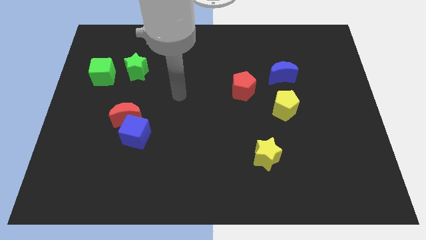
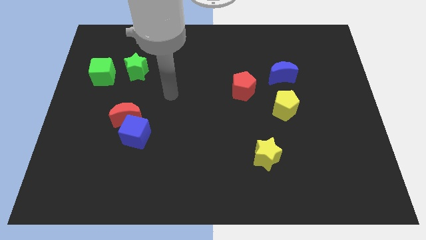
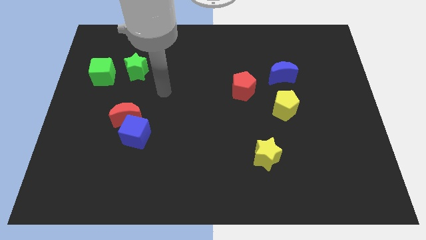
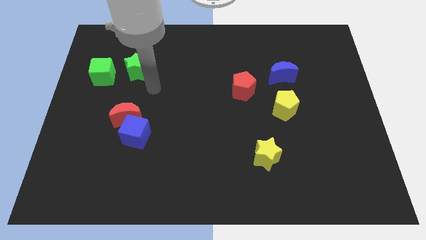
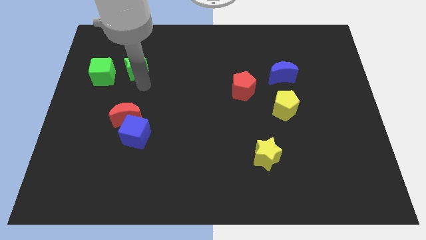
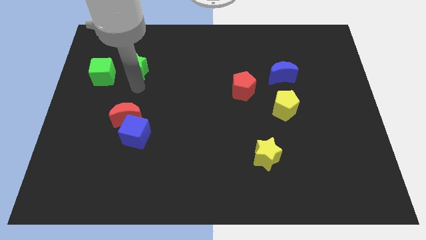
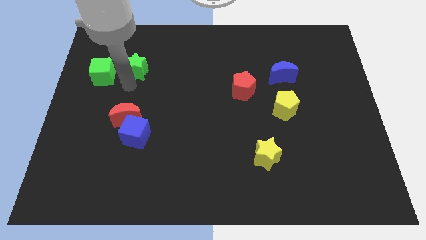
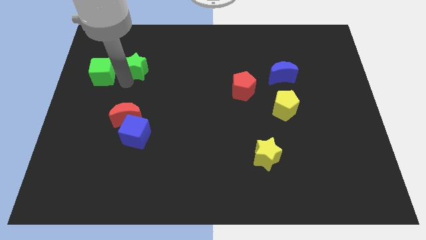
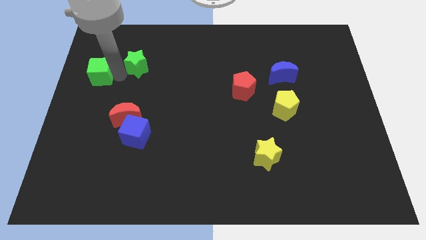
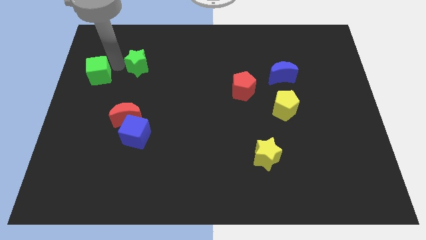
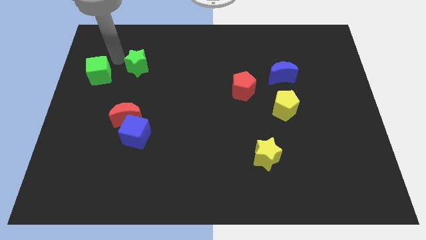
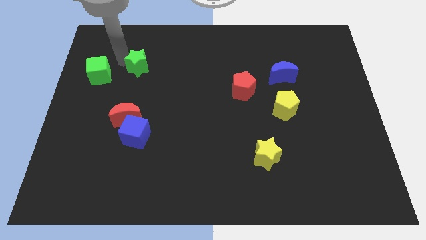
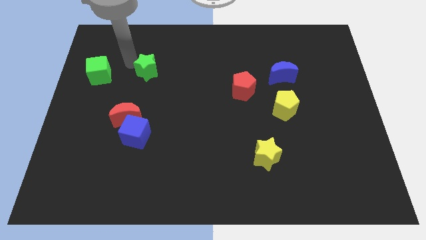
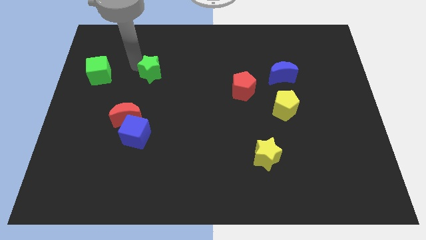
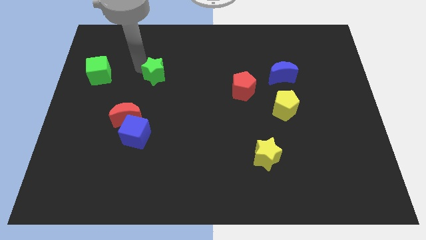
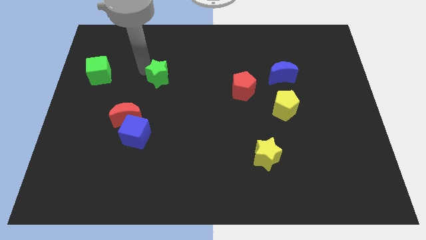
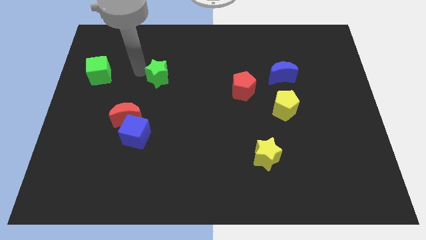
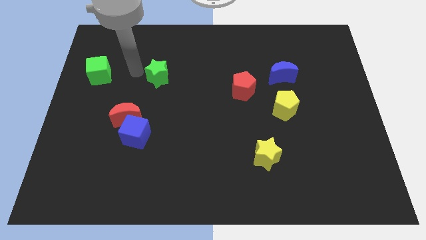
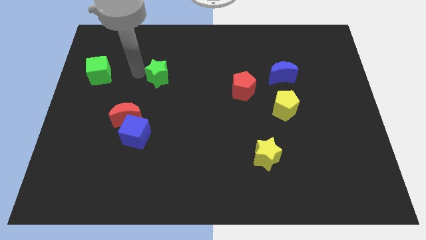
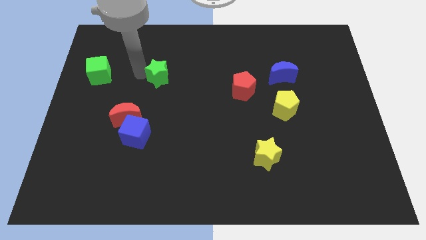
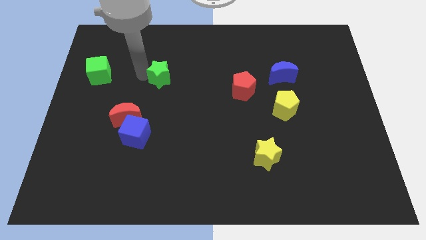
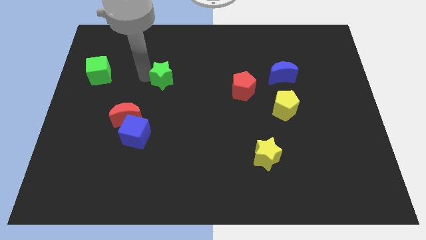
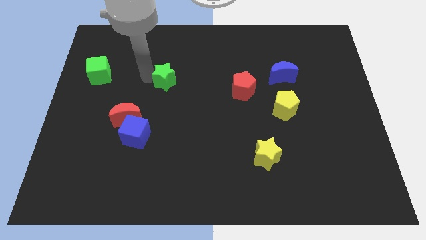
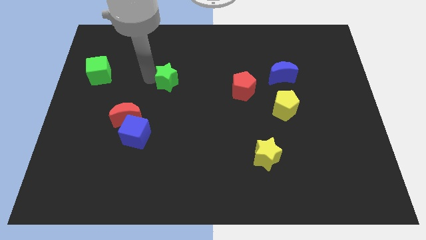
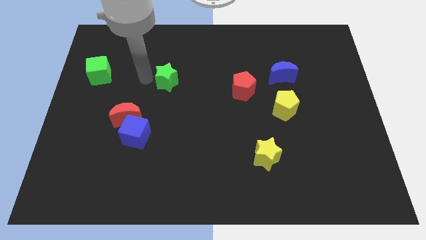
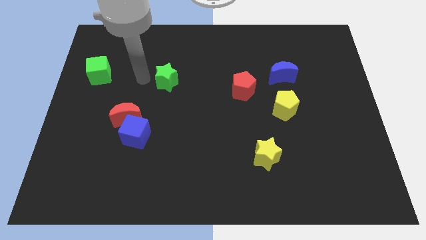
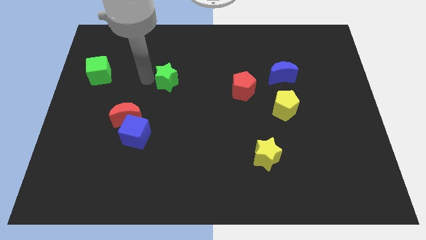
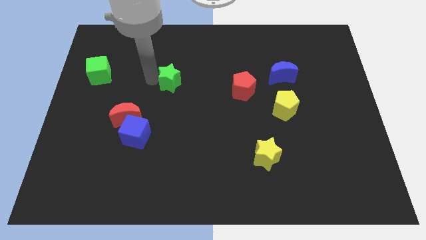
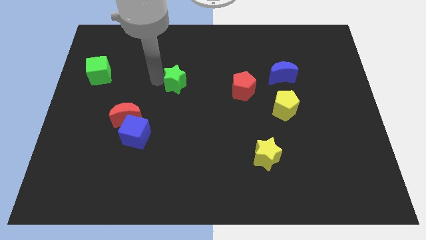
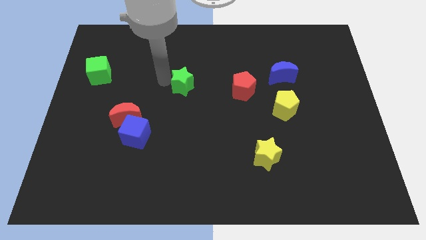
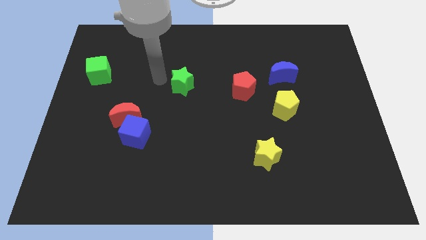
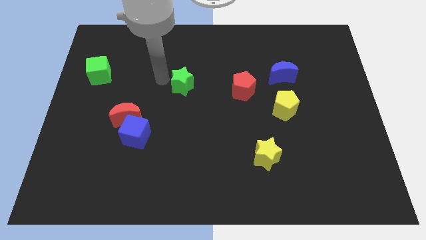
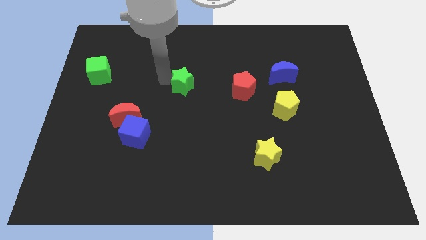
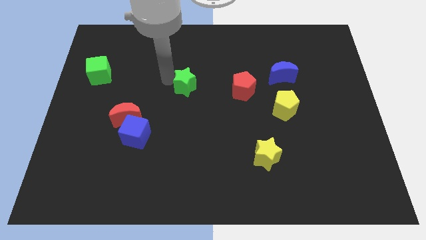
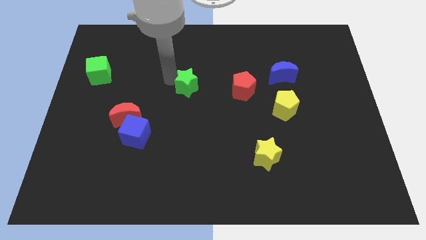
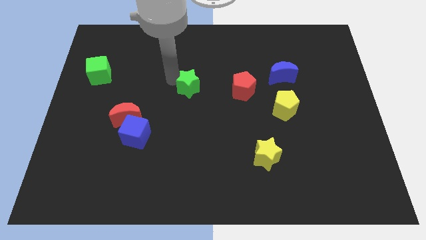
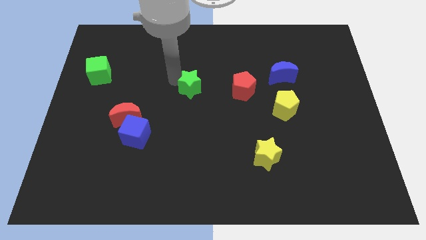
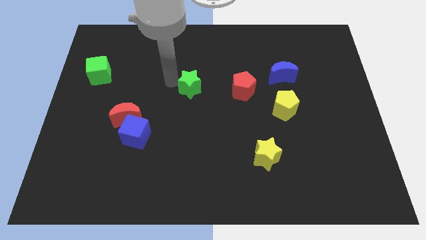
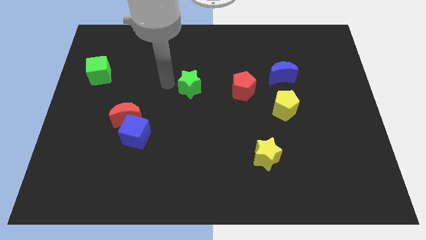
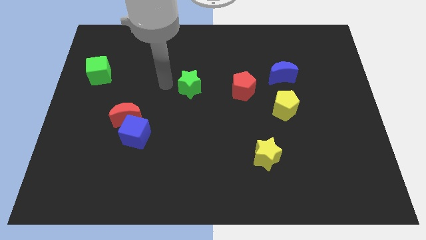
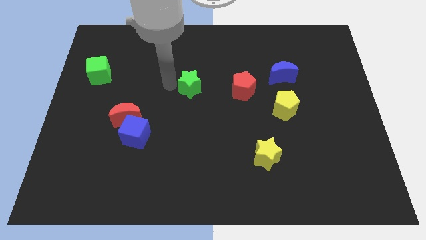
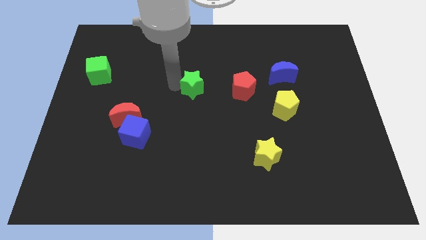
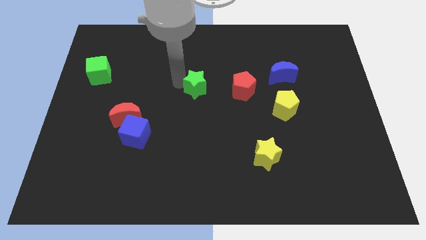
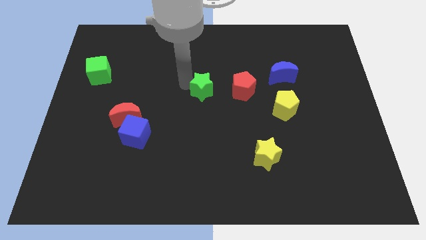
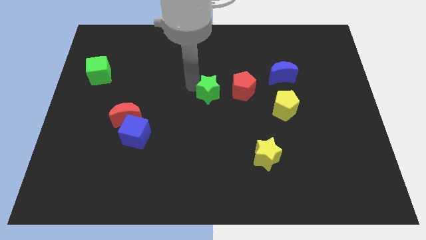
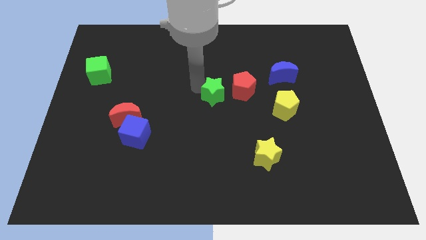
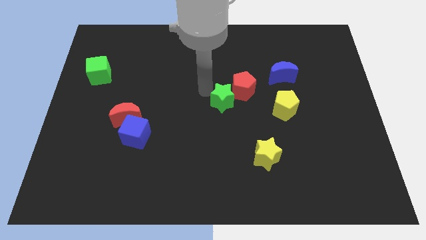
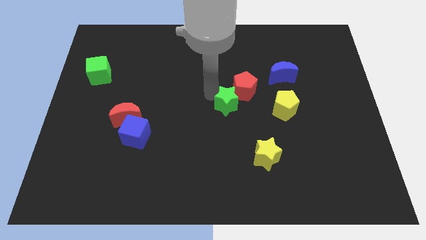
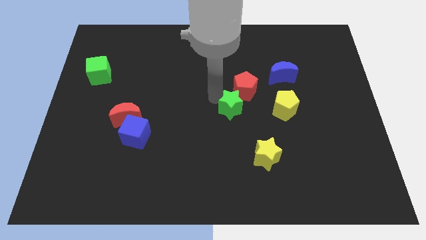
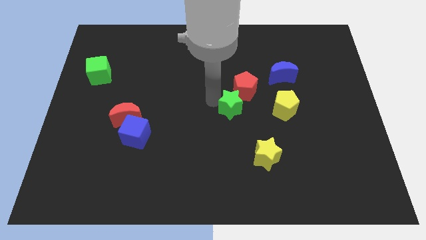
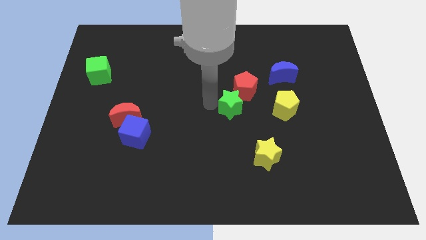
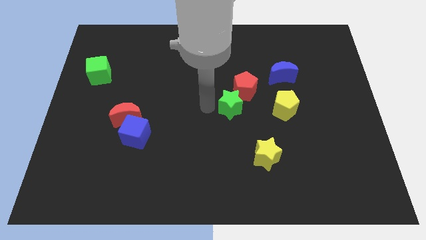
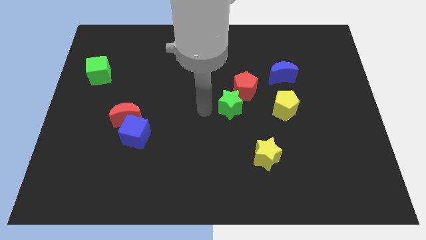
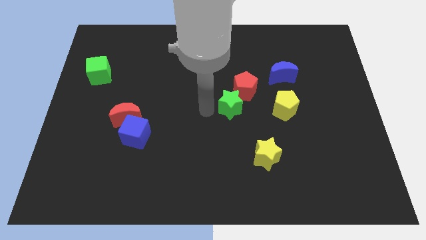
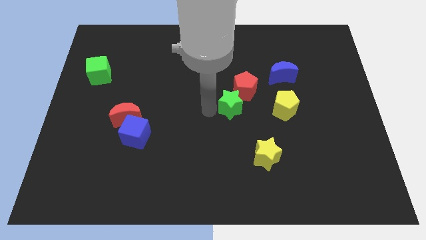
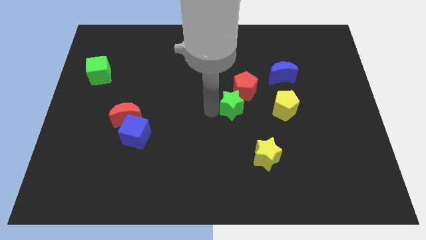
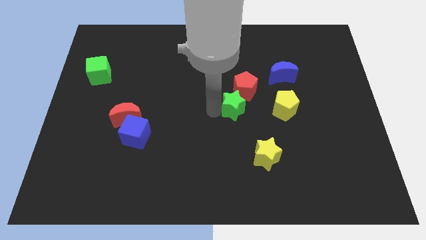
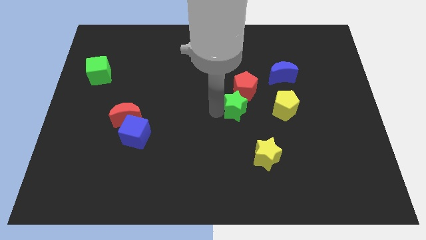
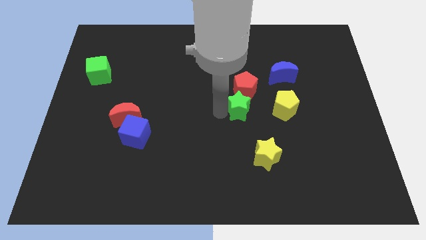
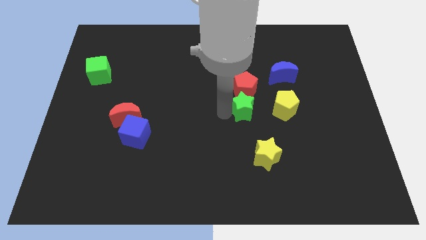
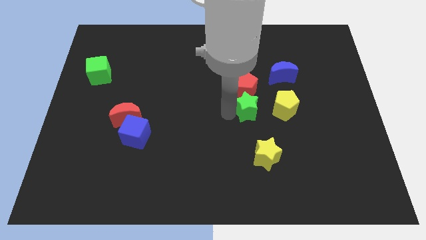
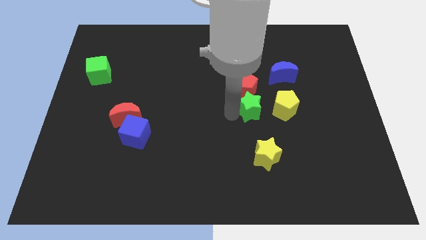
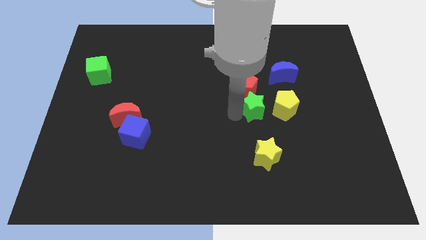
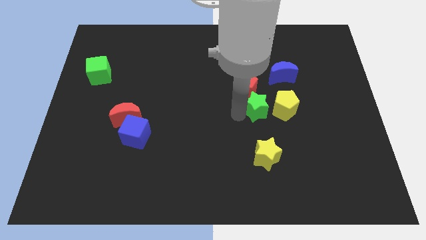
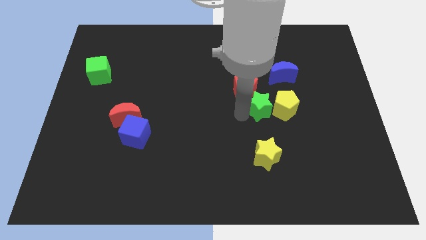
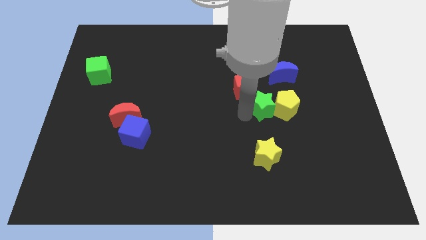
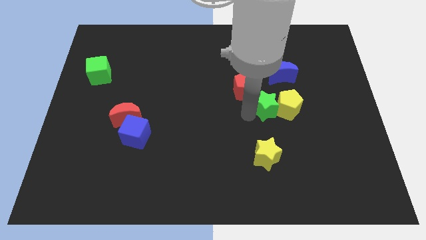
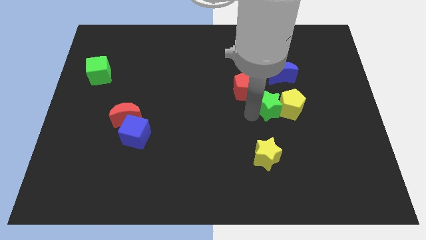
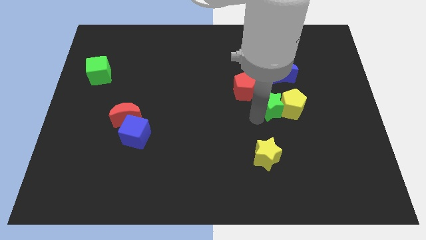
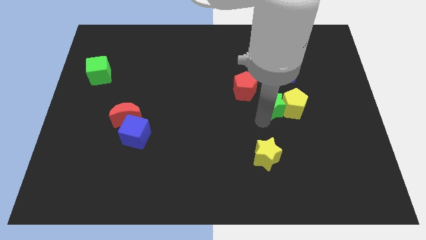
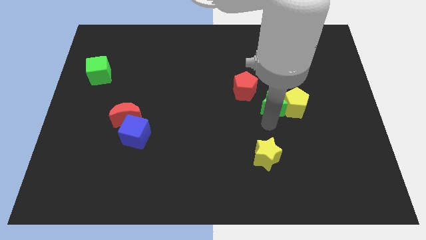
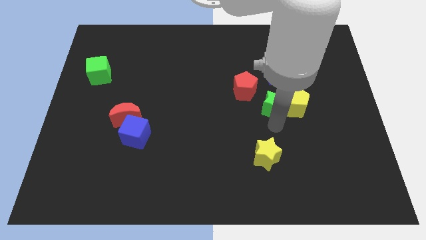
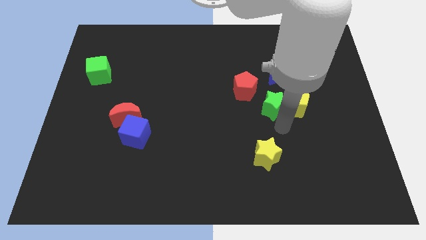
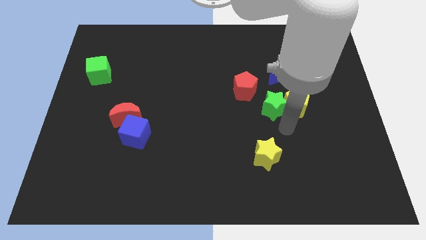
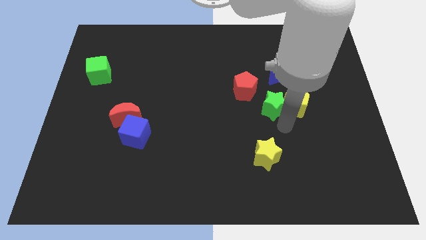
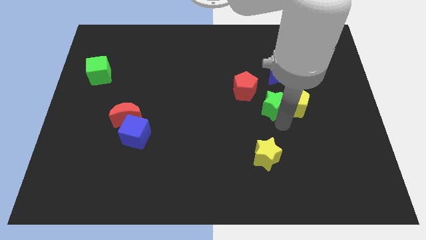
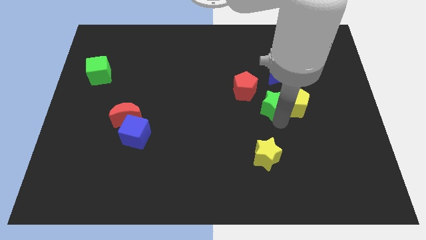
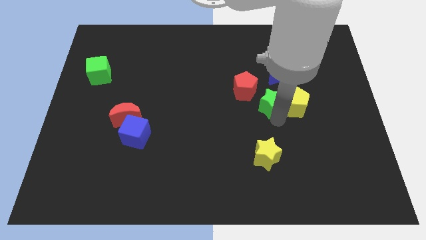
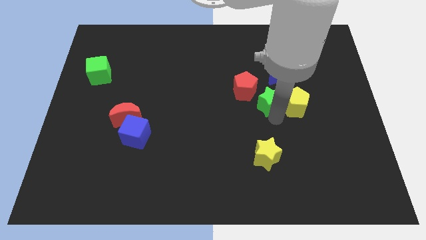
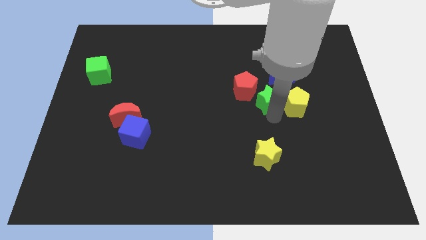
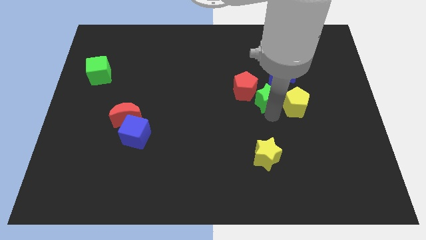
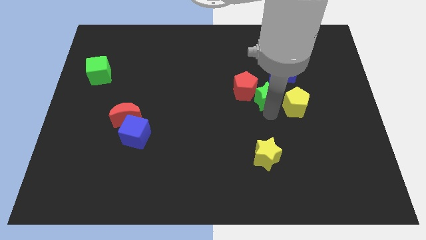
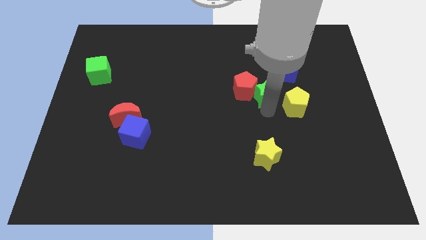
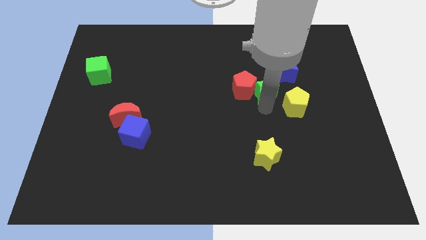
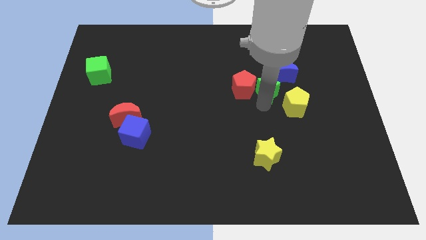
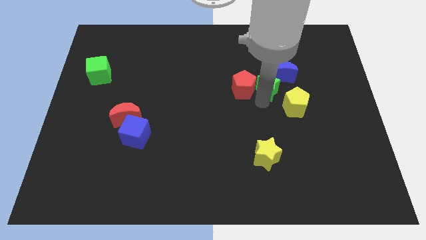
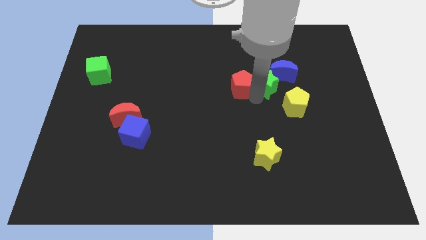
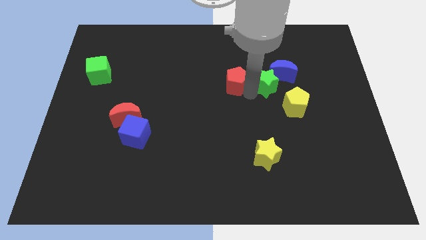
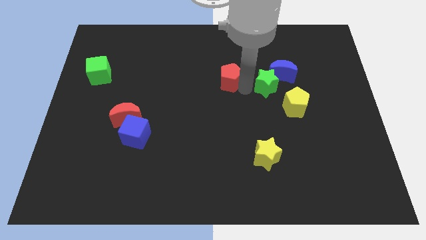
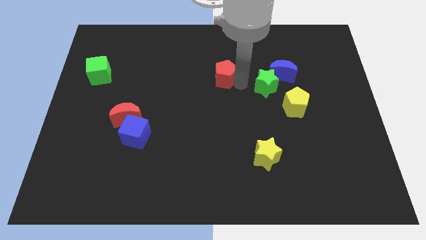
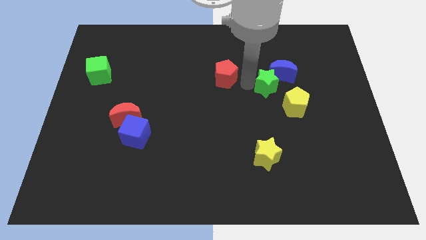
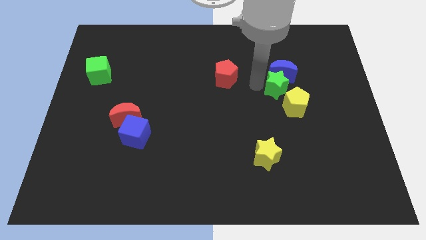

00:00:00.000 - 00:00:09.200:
move the green star diagonally down and to the right of the blue moon
